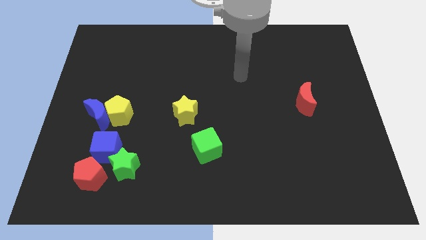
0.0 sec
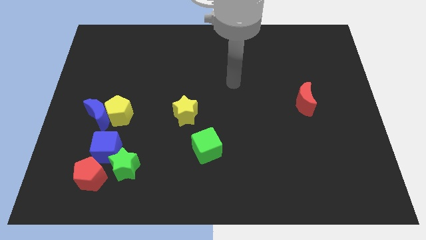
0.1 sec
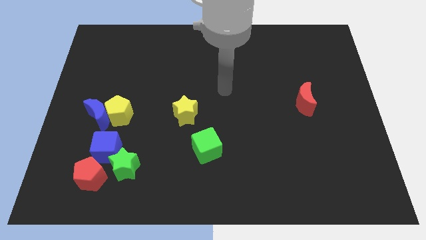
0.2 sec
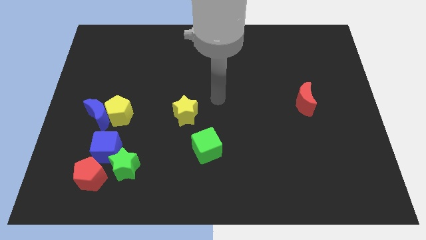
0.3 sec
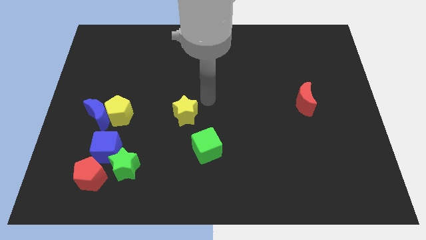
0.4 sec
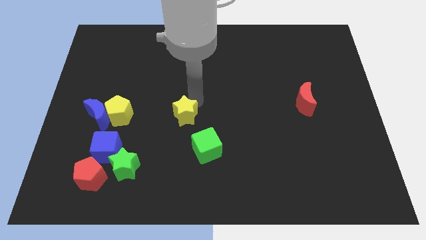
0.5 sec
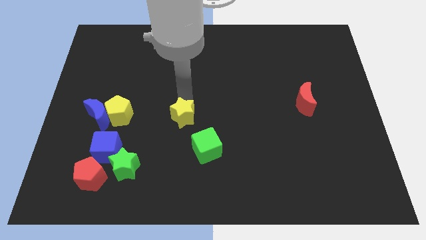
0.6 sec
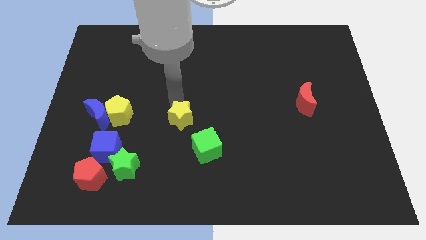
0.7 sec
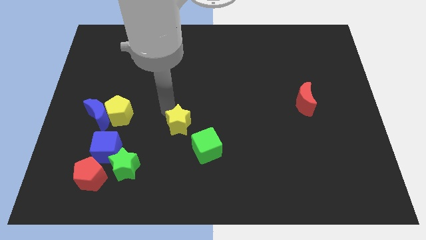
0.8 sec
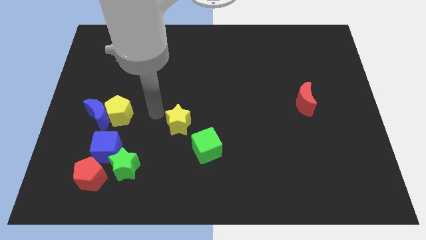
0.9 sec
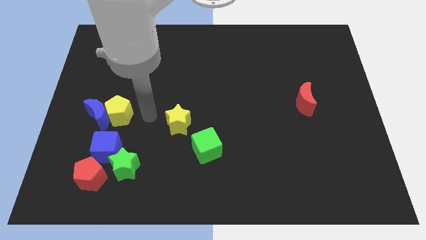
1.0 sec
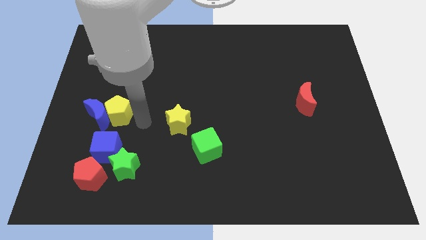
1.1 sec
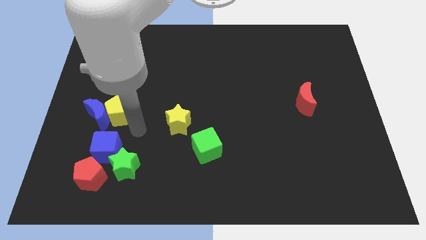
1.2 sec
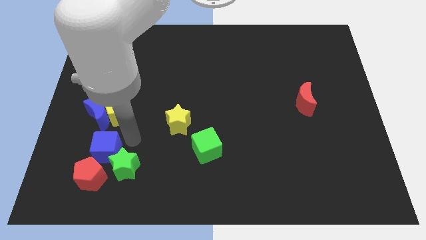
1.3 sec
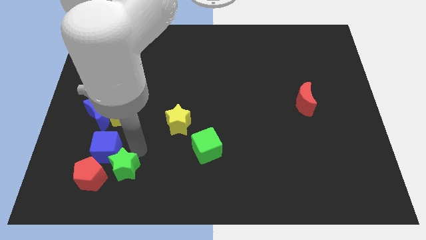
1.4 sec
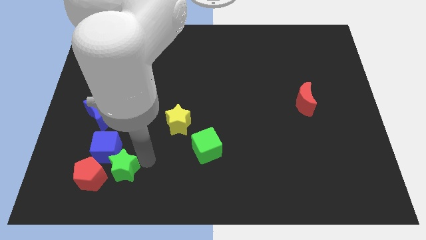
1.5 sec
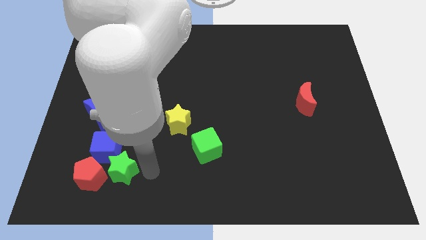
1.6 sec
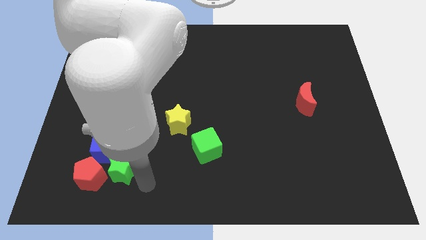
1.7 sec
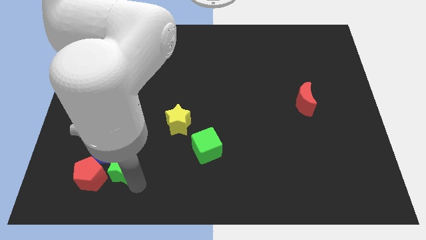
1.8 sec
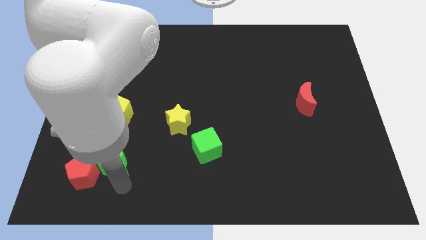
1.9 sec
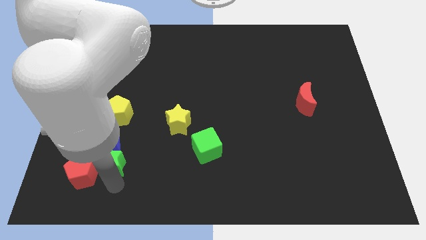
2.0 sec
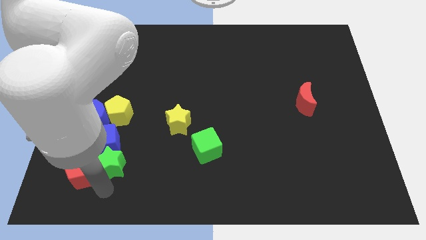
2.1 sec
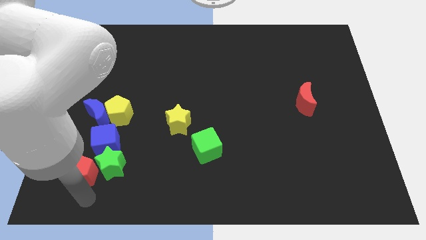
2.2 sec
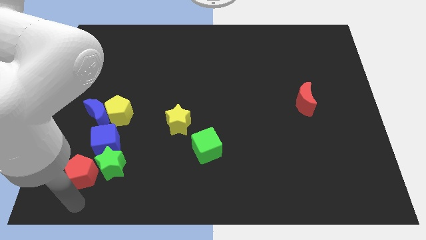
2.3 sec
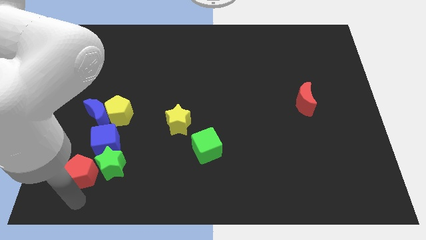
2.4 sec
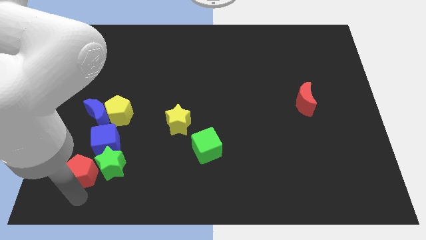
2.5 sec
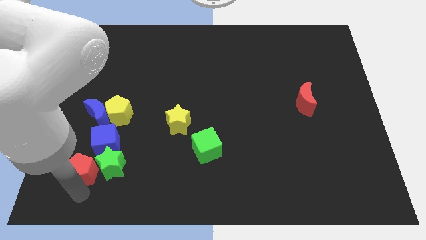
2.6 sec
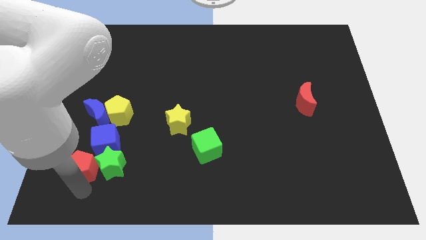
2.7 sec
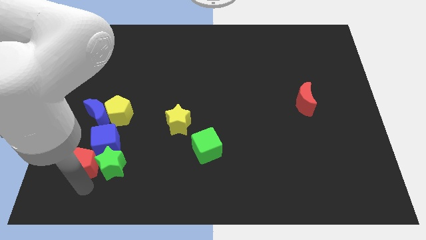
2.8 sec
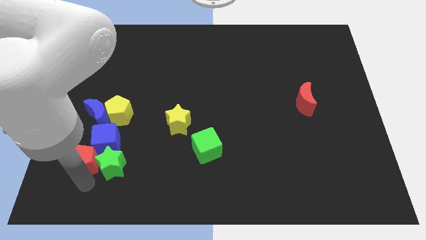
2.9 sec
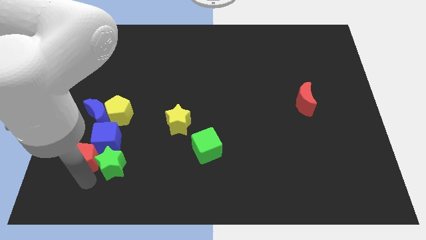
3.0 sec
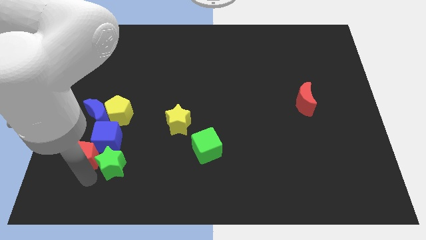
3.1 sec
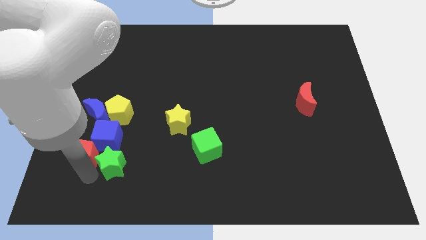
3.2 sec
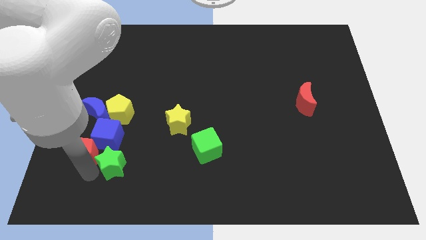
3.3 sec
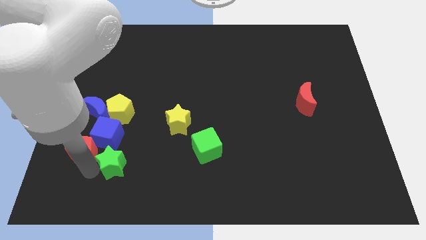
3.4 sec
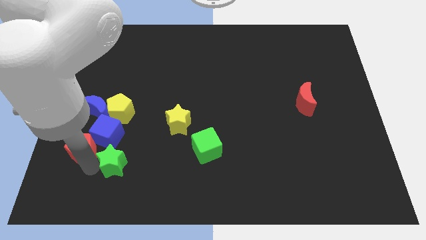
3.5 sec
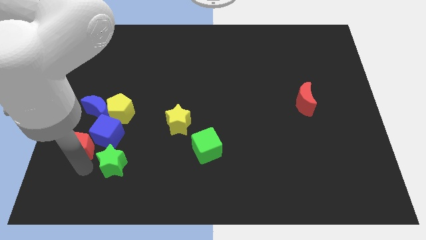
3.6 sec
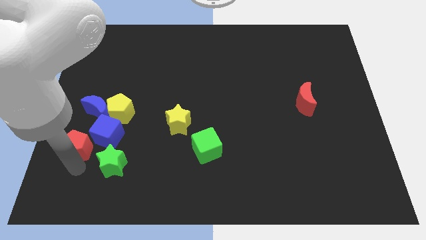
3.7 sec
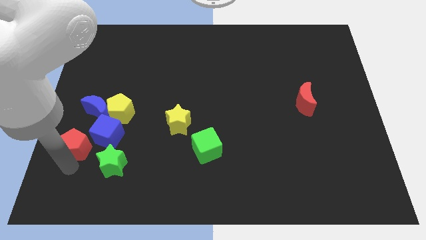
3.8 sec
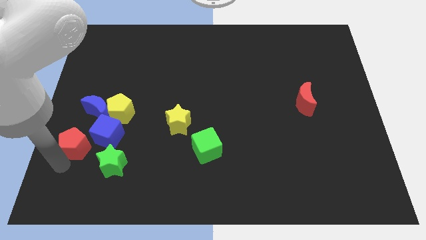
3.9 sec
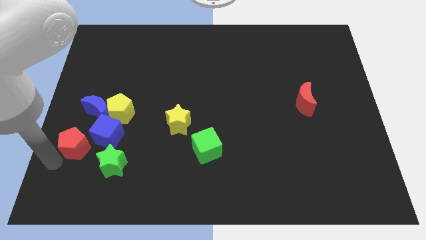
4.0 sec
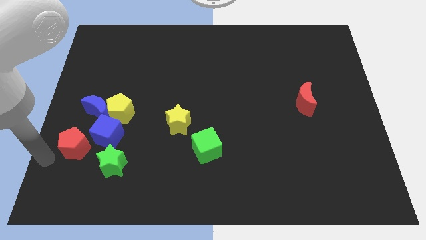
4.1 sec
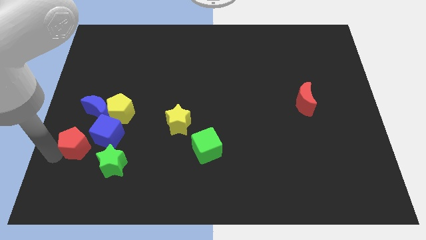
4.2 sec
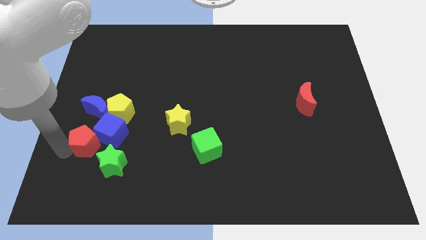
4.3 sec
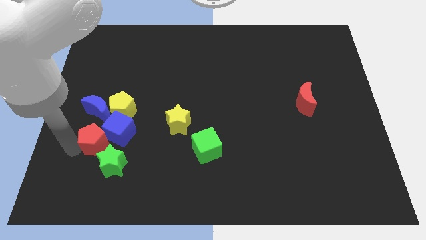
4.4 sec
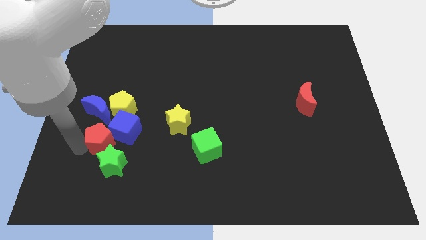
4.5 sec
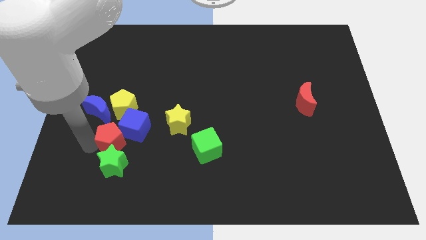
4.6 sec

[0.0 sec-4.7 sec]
slightly push the red pentagon upwards and then to the right

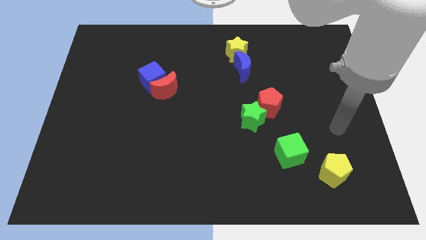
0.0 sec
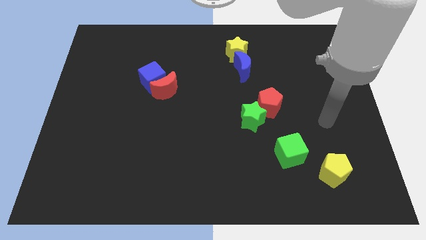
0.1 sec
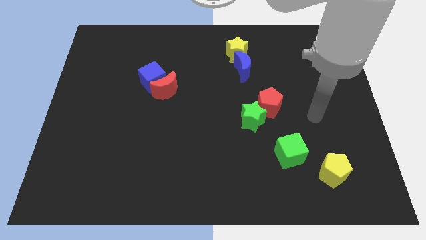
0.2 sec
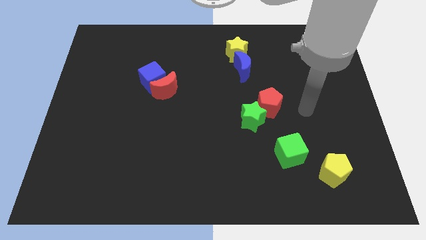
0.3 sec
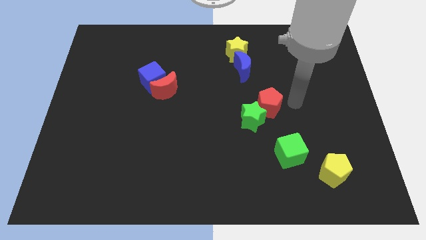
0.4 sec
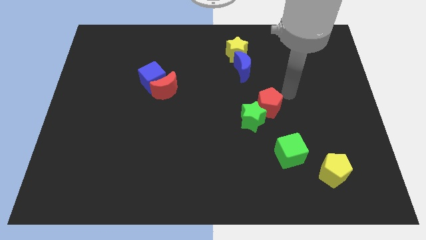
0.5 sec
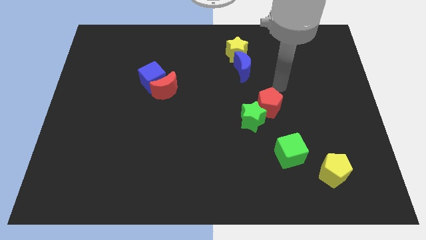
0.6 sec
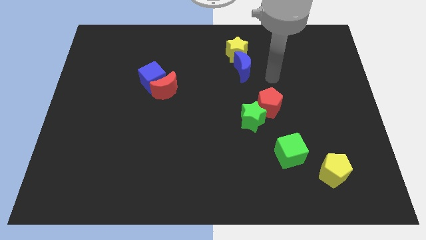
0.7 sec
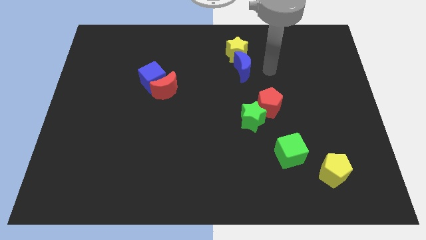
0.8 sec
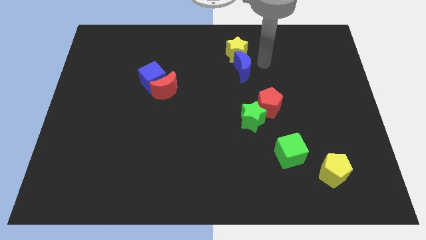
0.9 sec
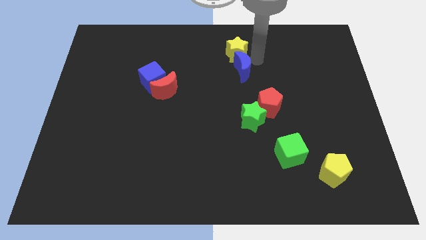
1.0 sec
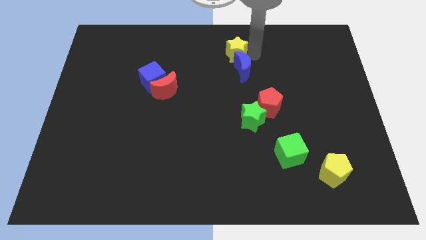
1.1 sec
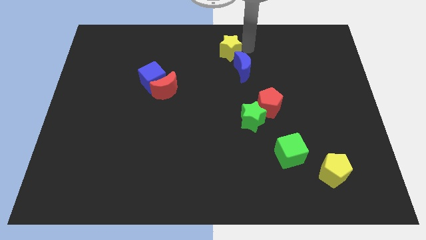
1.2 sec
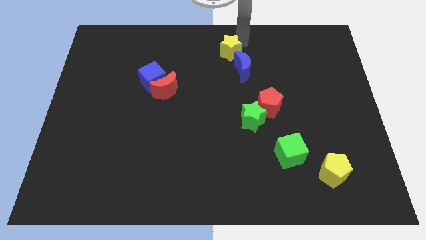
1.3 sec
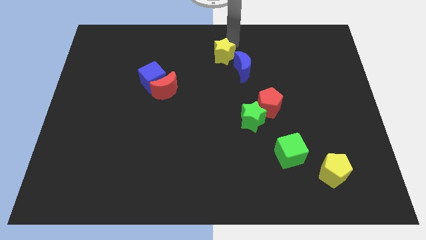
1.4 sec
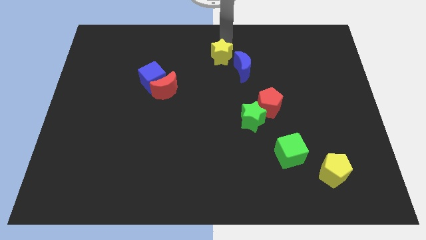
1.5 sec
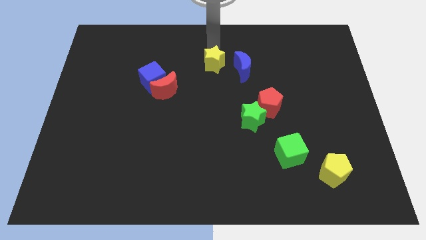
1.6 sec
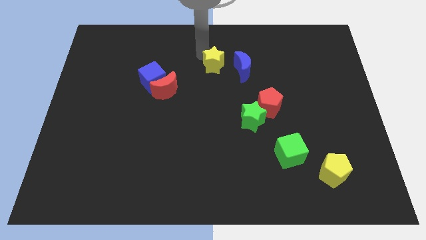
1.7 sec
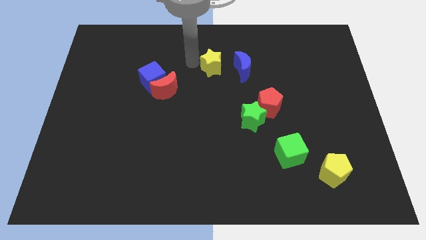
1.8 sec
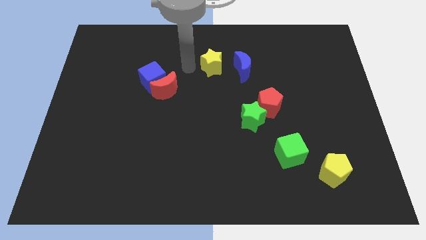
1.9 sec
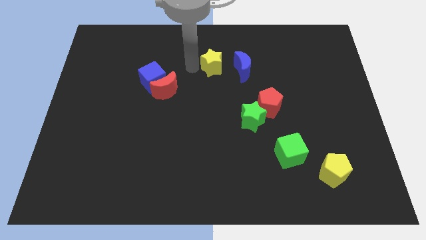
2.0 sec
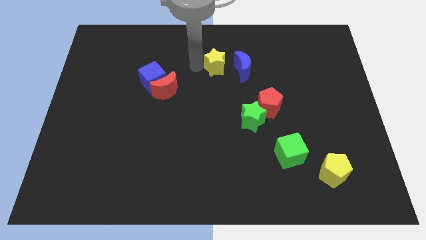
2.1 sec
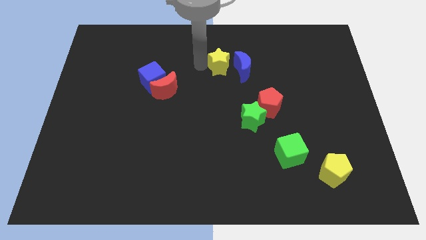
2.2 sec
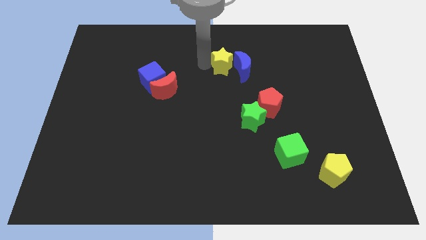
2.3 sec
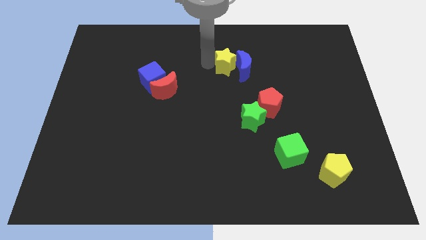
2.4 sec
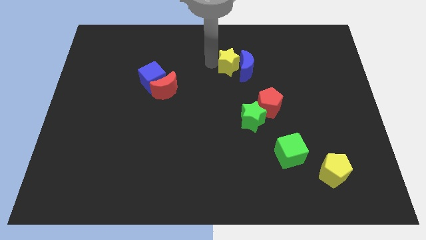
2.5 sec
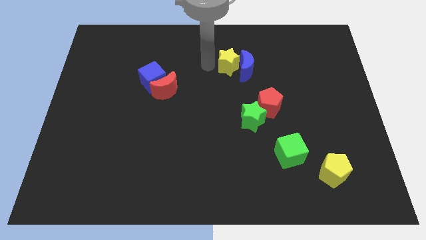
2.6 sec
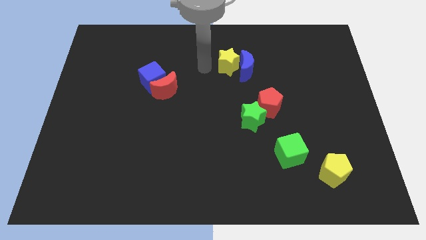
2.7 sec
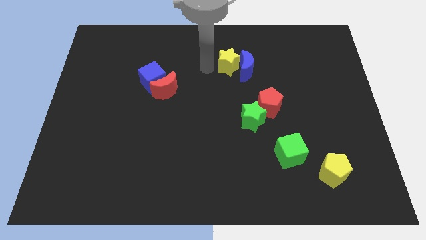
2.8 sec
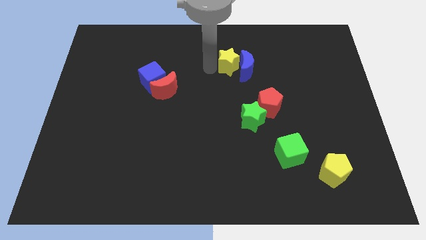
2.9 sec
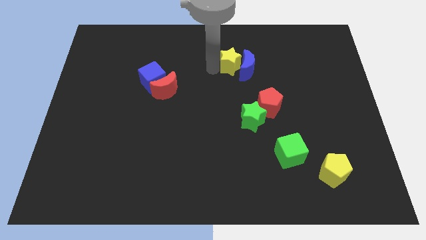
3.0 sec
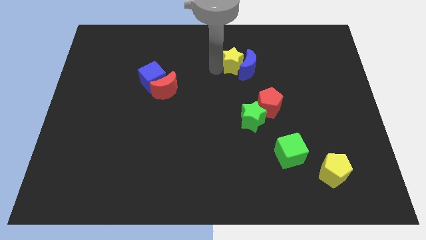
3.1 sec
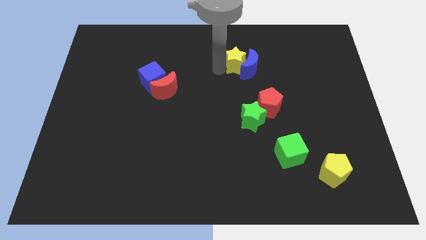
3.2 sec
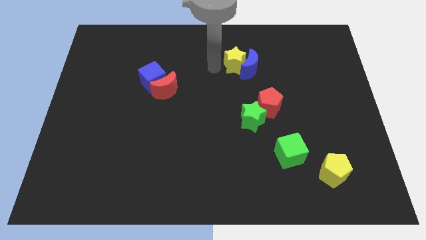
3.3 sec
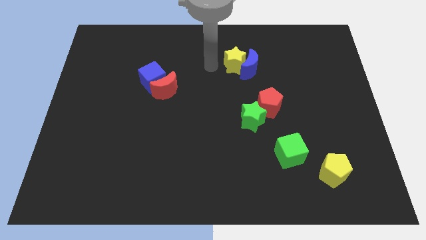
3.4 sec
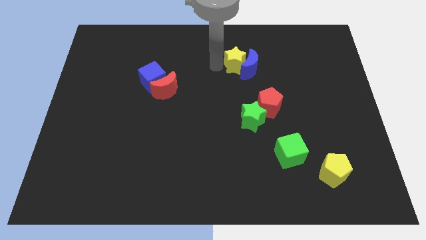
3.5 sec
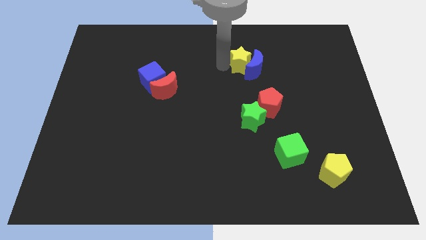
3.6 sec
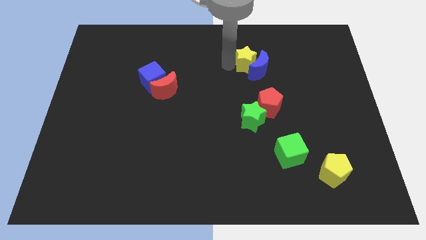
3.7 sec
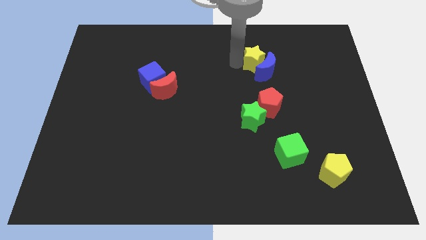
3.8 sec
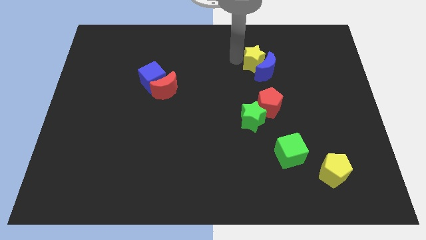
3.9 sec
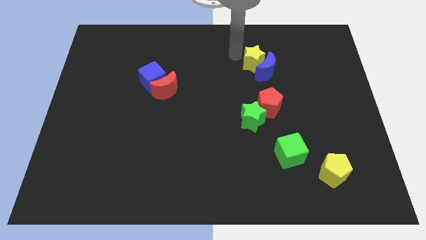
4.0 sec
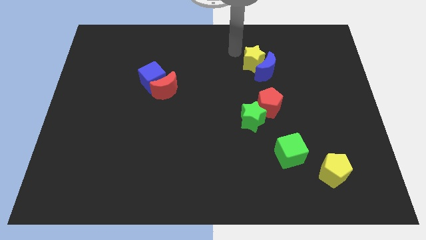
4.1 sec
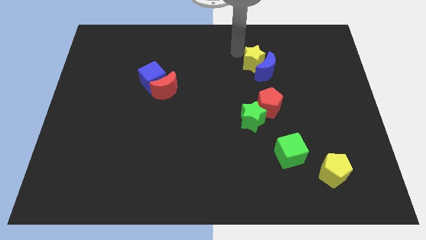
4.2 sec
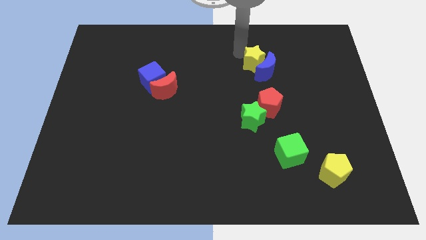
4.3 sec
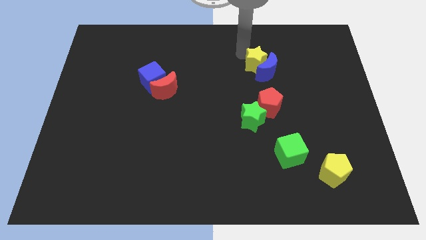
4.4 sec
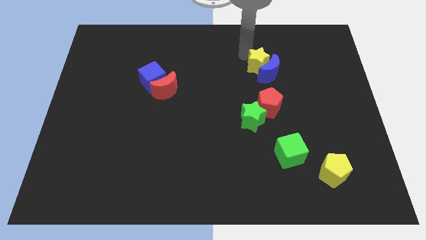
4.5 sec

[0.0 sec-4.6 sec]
slightly move the yellow star downwards and then to the right
